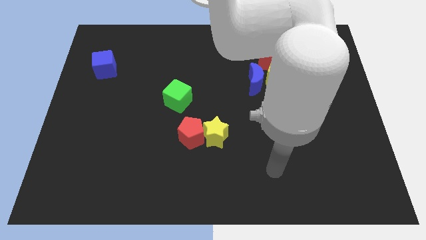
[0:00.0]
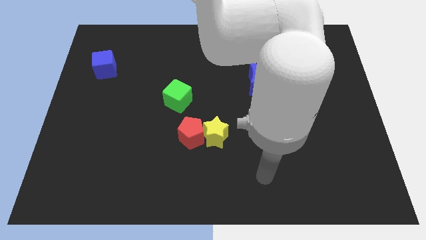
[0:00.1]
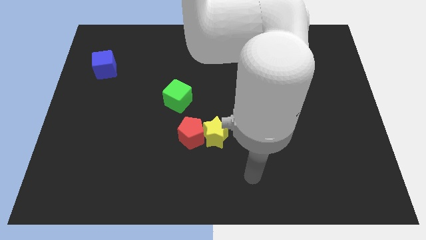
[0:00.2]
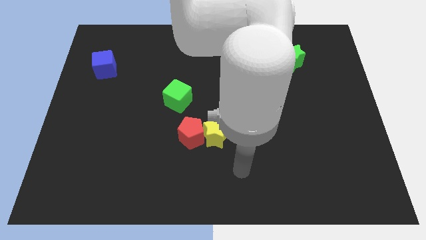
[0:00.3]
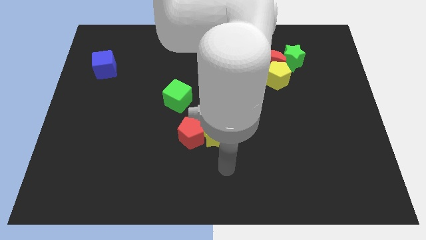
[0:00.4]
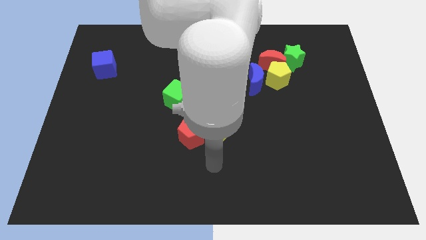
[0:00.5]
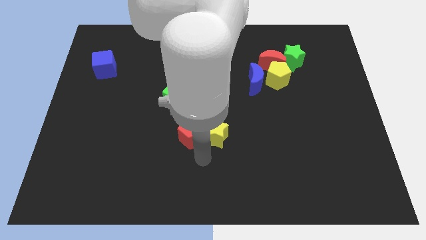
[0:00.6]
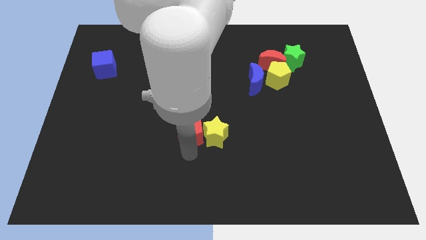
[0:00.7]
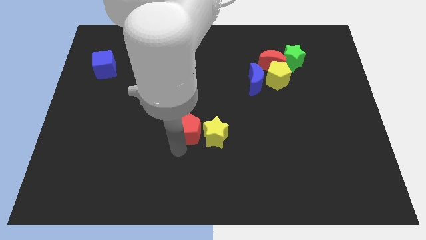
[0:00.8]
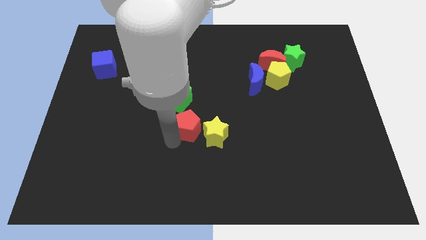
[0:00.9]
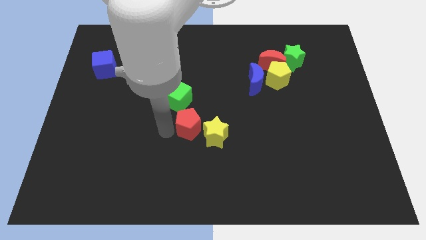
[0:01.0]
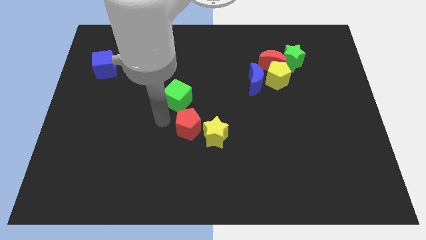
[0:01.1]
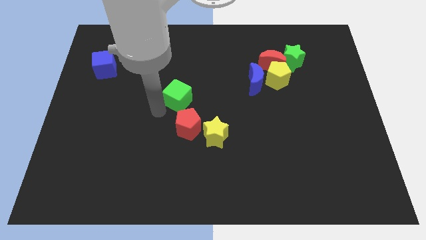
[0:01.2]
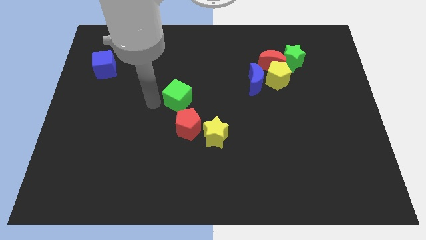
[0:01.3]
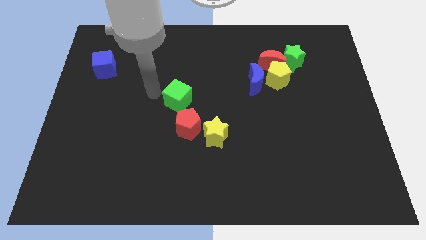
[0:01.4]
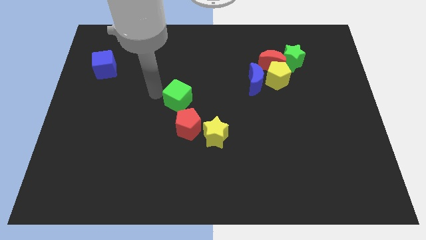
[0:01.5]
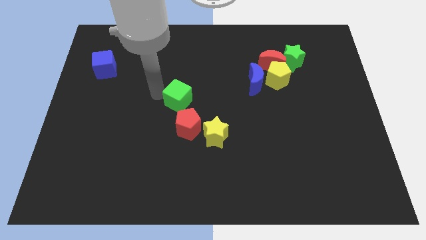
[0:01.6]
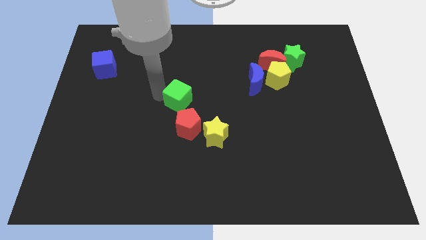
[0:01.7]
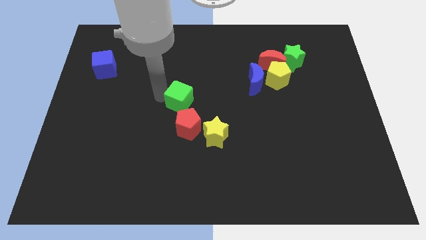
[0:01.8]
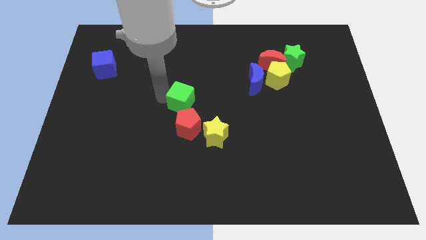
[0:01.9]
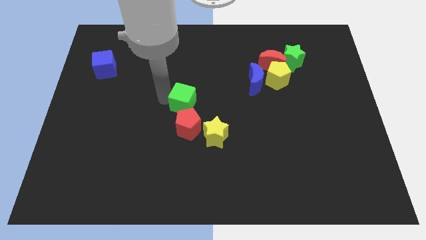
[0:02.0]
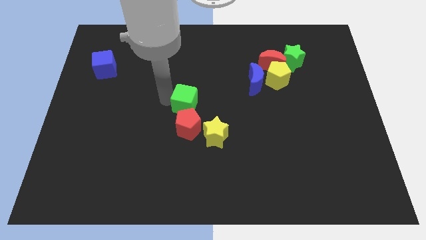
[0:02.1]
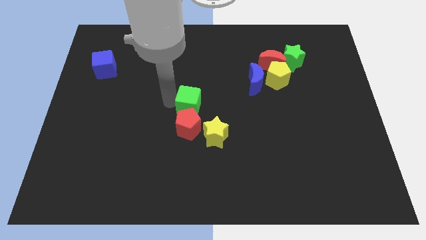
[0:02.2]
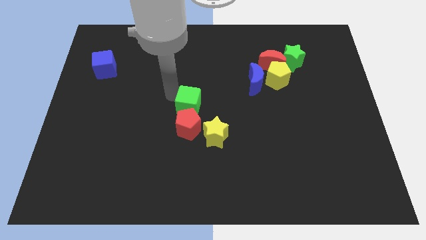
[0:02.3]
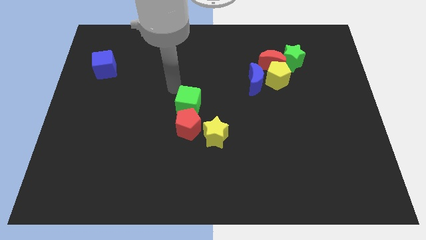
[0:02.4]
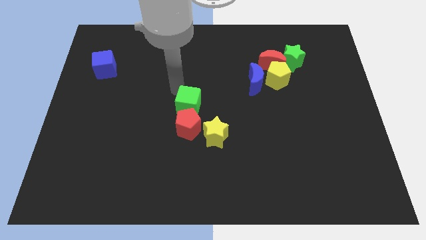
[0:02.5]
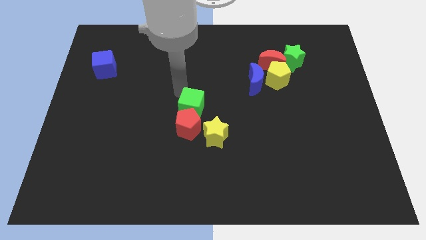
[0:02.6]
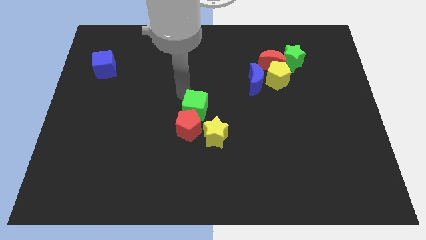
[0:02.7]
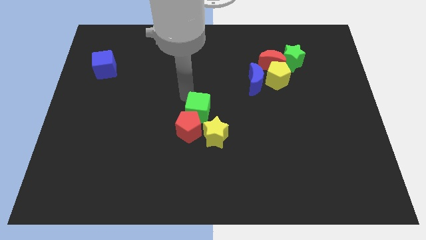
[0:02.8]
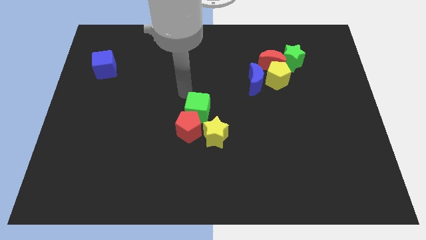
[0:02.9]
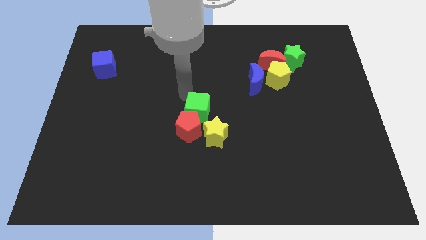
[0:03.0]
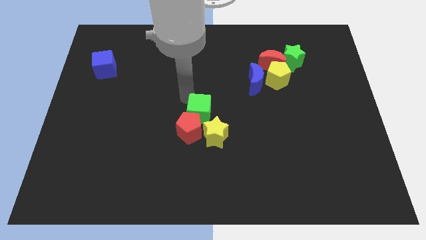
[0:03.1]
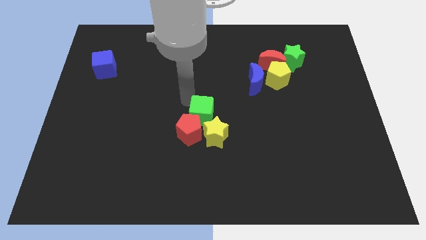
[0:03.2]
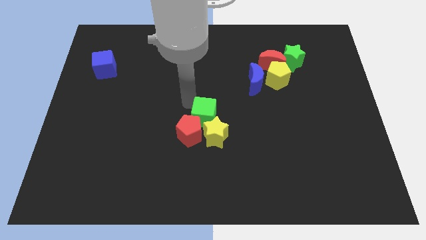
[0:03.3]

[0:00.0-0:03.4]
push the green cube towards the yellow star

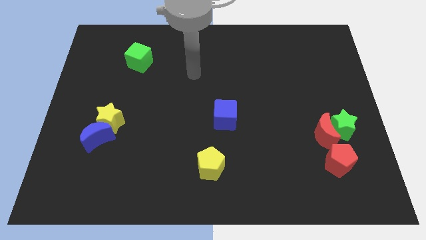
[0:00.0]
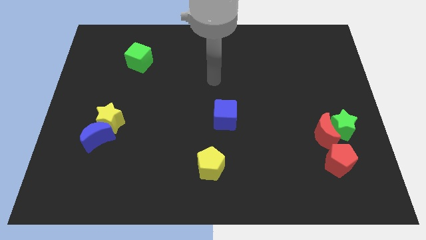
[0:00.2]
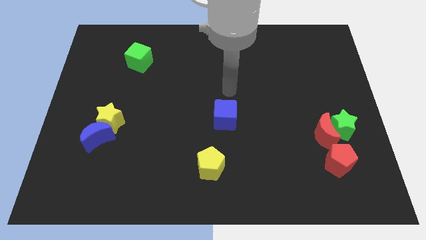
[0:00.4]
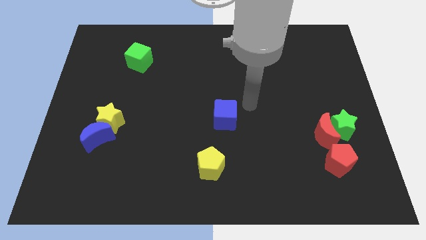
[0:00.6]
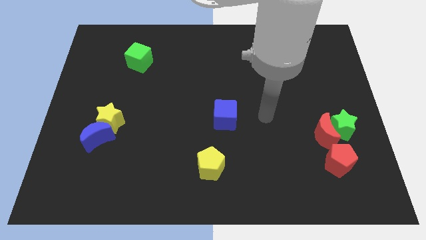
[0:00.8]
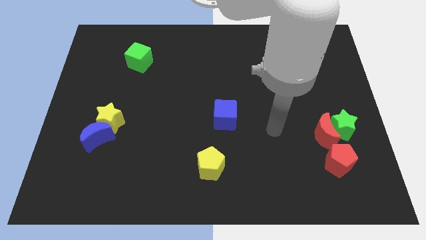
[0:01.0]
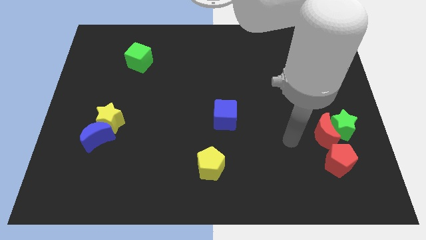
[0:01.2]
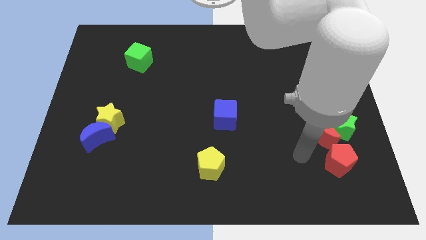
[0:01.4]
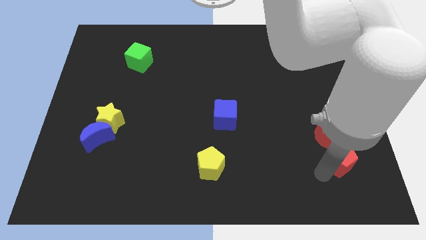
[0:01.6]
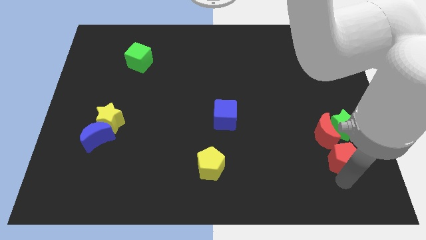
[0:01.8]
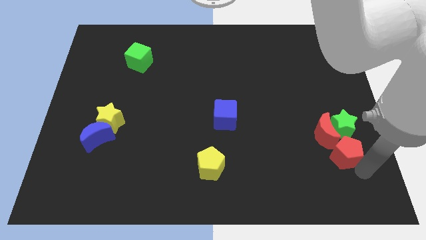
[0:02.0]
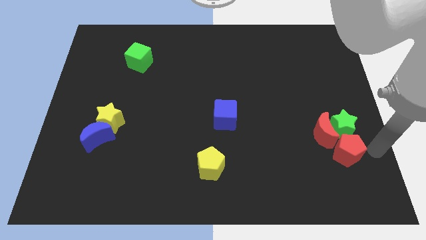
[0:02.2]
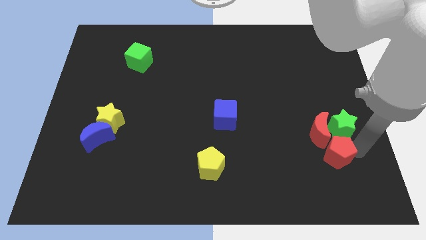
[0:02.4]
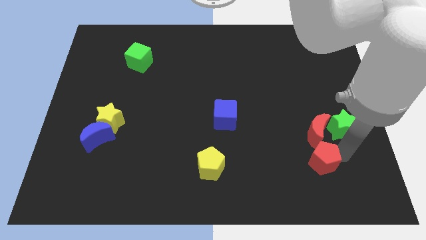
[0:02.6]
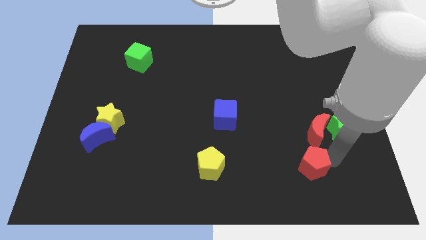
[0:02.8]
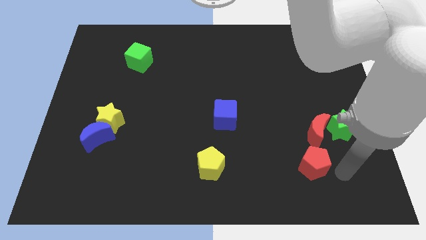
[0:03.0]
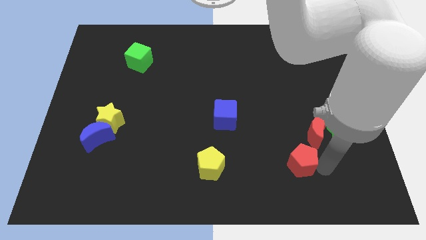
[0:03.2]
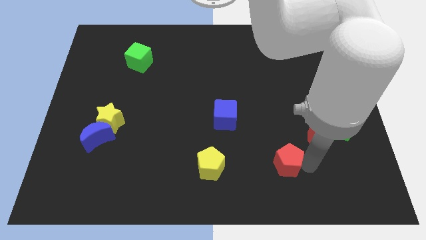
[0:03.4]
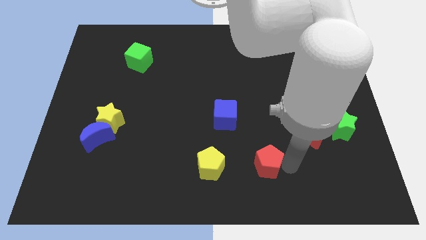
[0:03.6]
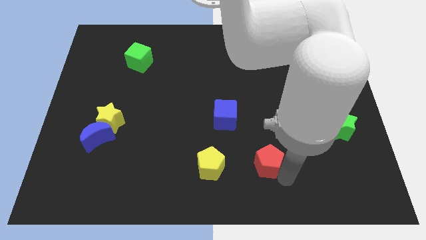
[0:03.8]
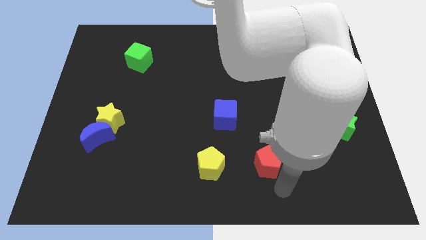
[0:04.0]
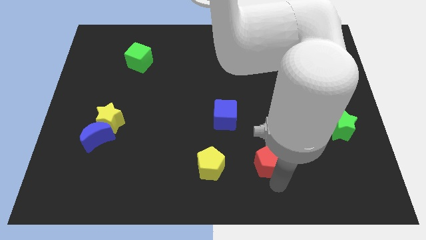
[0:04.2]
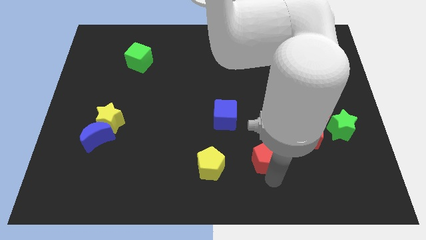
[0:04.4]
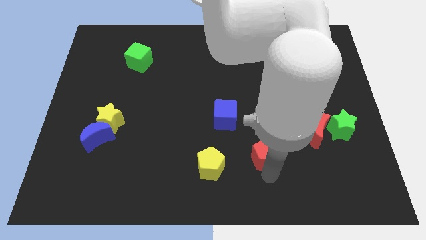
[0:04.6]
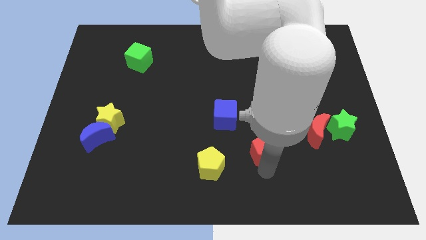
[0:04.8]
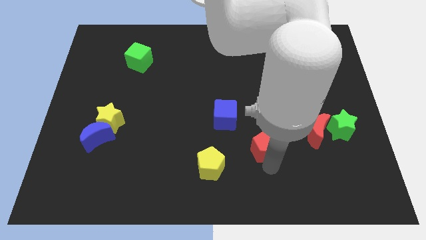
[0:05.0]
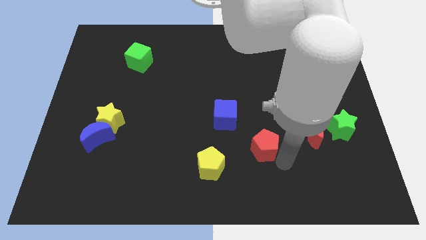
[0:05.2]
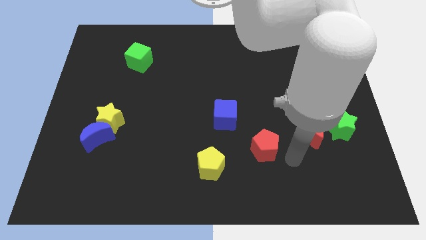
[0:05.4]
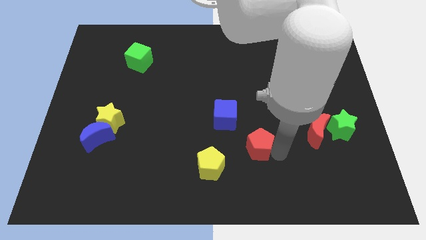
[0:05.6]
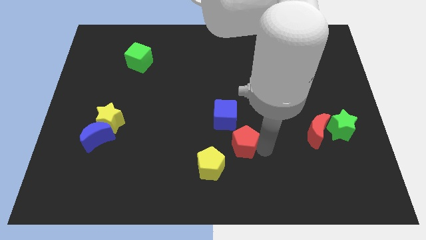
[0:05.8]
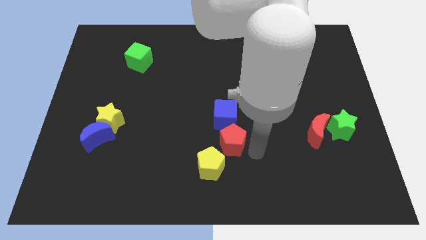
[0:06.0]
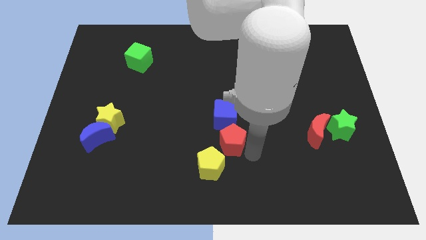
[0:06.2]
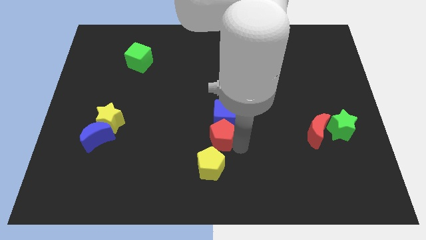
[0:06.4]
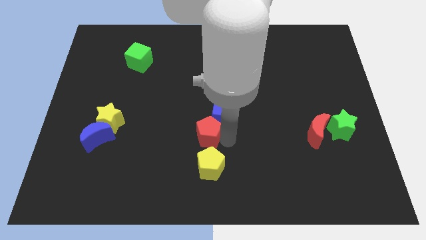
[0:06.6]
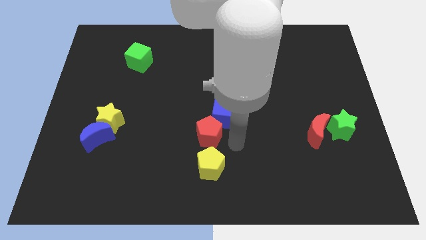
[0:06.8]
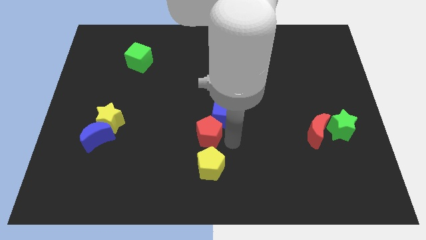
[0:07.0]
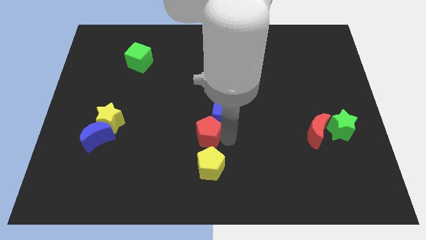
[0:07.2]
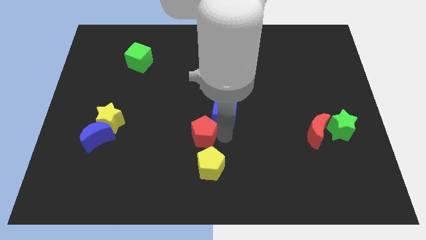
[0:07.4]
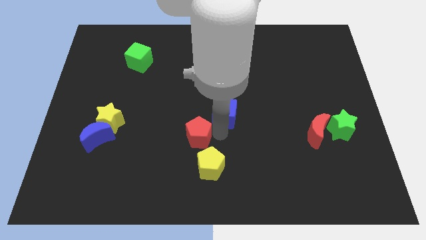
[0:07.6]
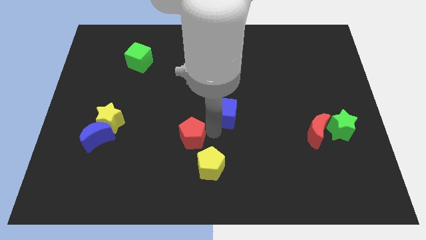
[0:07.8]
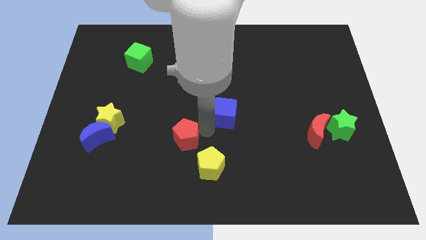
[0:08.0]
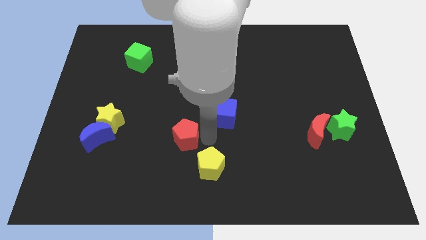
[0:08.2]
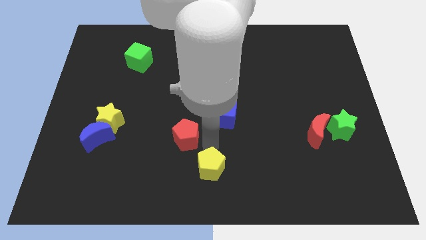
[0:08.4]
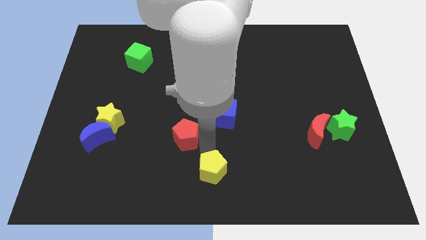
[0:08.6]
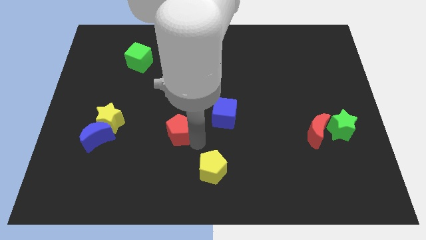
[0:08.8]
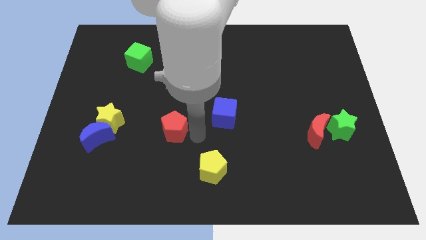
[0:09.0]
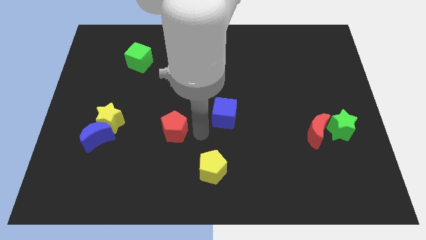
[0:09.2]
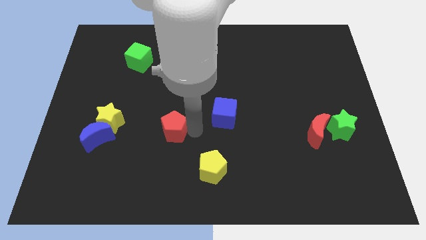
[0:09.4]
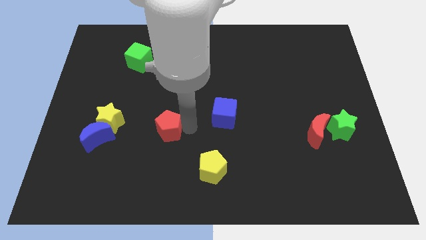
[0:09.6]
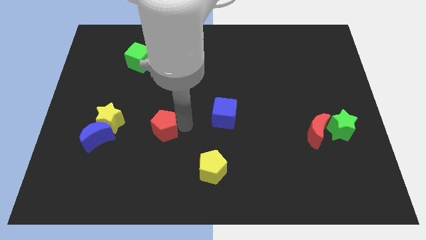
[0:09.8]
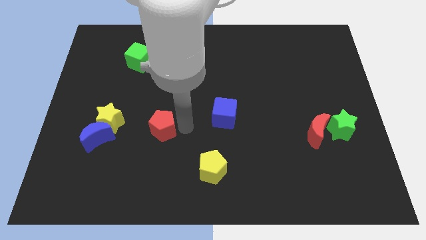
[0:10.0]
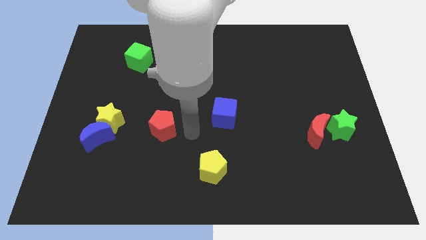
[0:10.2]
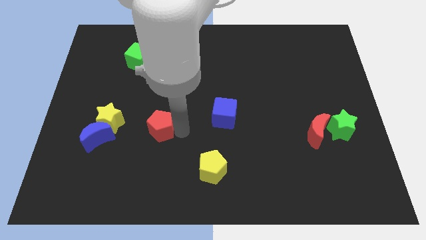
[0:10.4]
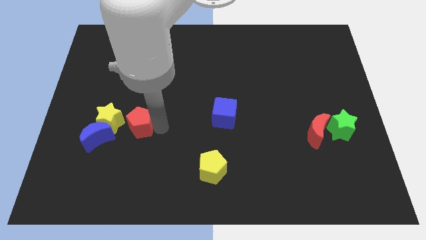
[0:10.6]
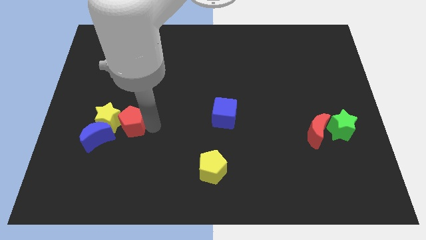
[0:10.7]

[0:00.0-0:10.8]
move the red pentagon close to the yellow star
